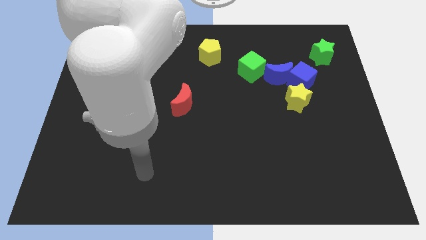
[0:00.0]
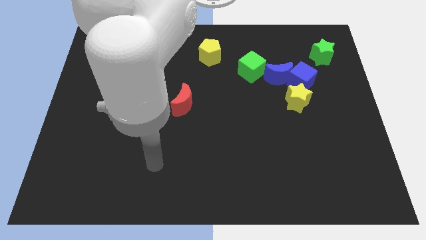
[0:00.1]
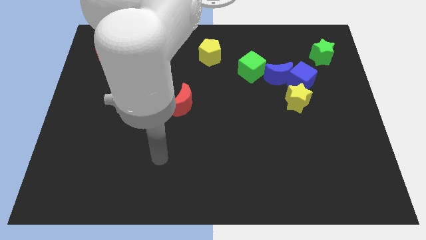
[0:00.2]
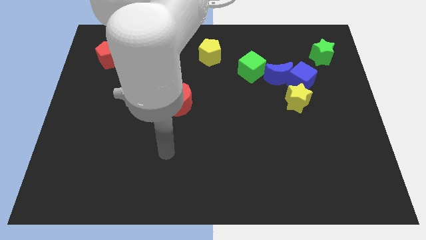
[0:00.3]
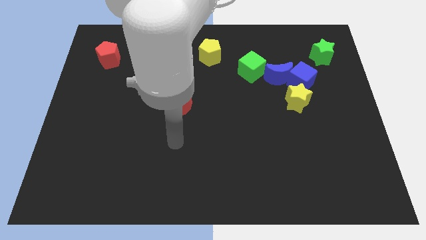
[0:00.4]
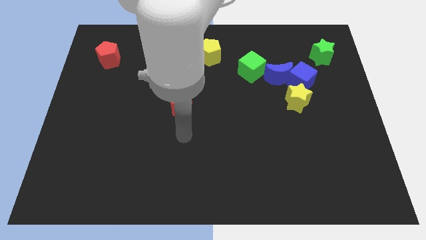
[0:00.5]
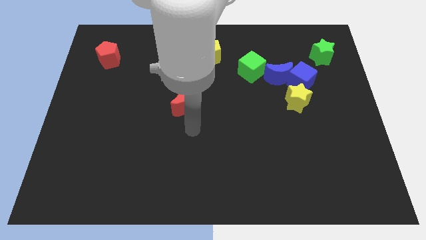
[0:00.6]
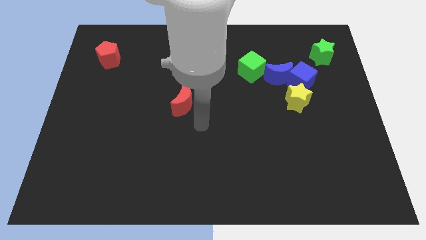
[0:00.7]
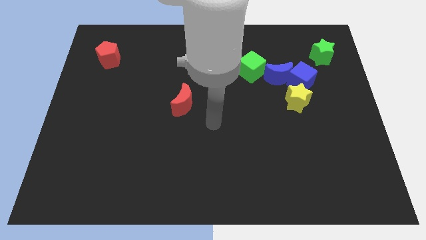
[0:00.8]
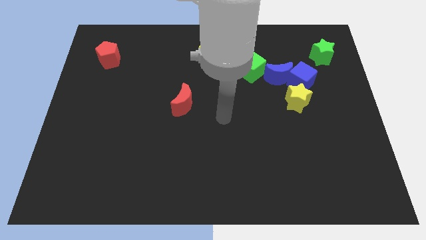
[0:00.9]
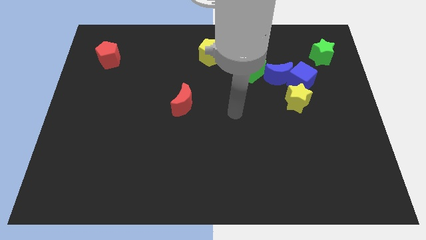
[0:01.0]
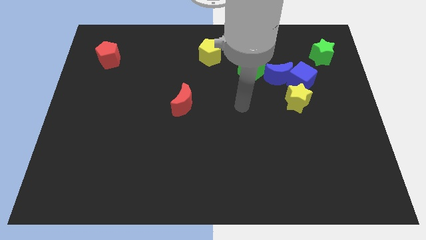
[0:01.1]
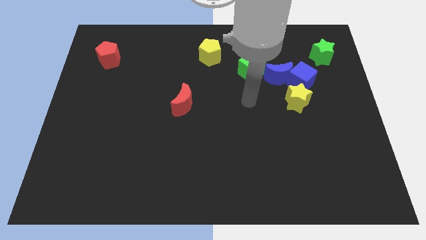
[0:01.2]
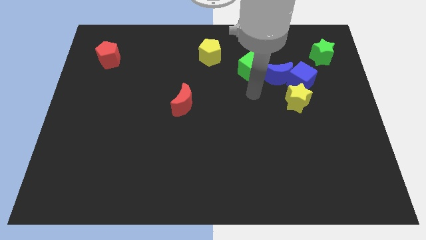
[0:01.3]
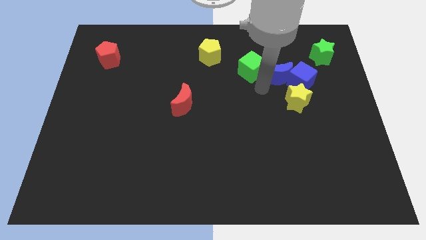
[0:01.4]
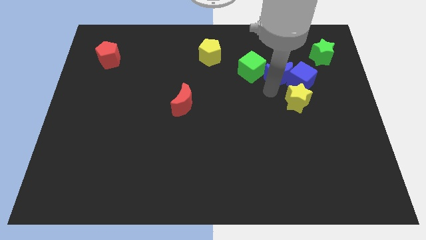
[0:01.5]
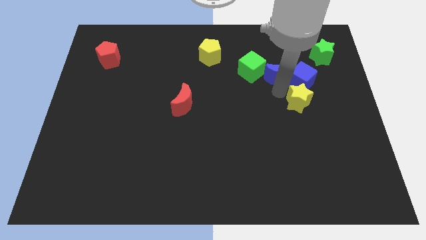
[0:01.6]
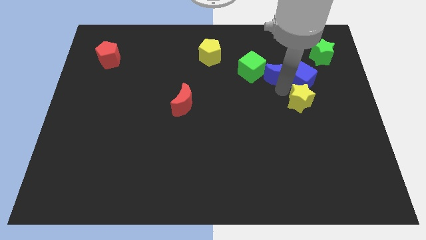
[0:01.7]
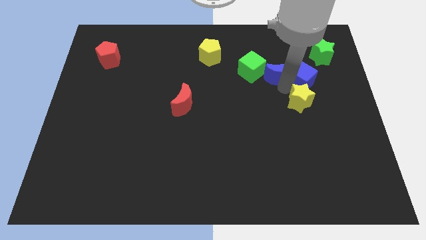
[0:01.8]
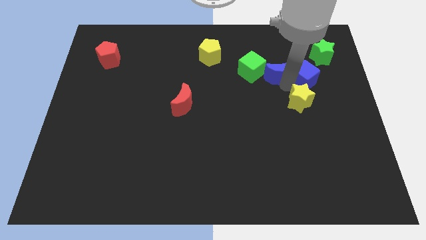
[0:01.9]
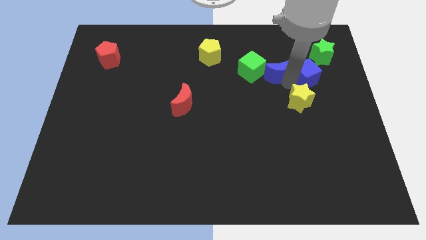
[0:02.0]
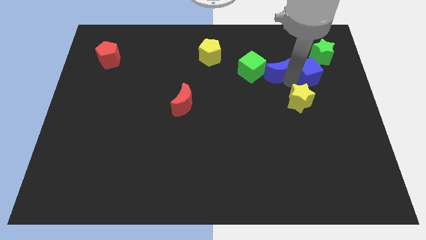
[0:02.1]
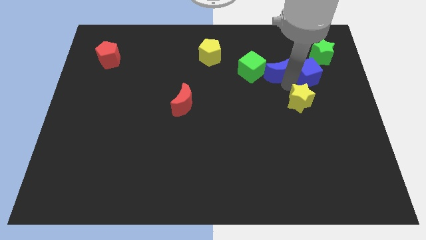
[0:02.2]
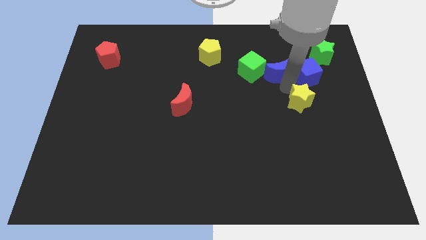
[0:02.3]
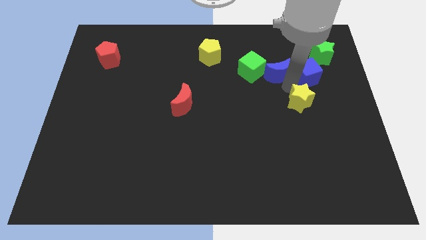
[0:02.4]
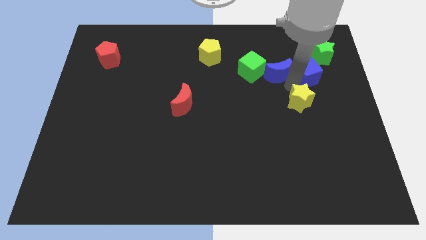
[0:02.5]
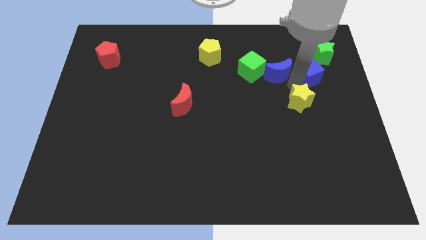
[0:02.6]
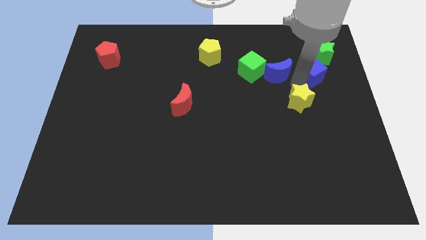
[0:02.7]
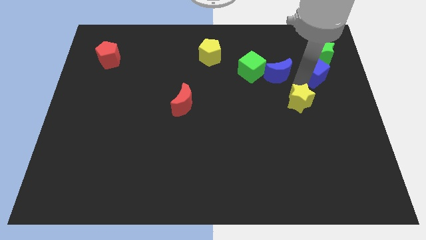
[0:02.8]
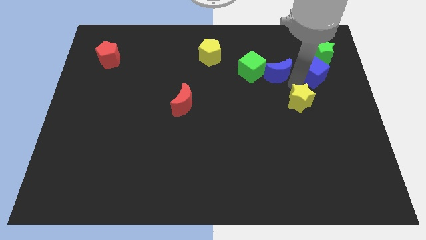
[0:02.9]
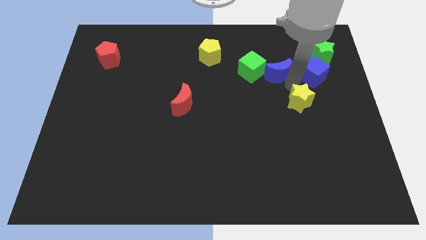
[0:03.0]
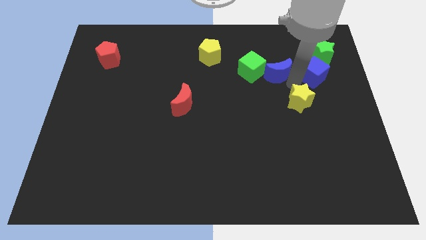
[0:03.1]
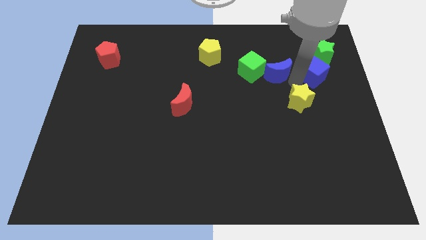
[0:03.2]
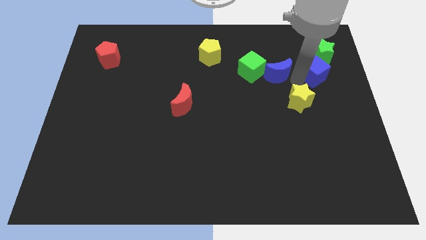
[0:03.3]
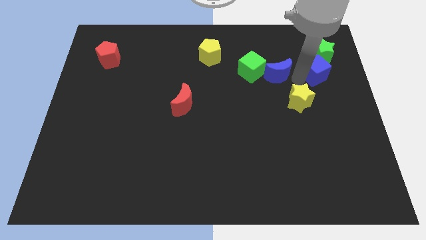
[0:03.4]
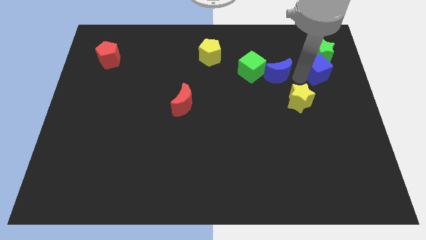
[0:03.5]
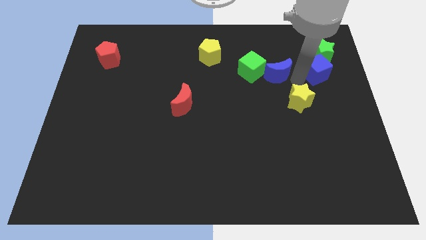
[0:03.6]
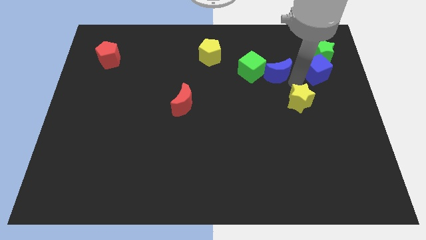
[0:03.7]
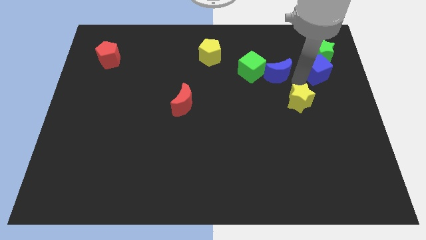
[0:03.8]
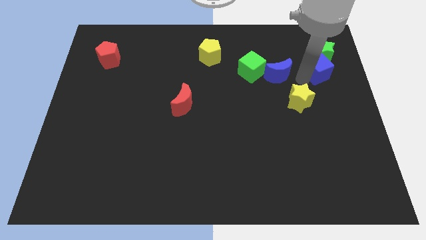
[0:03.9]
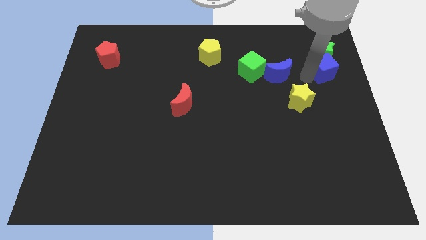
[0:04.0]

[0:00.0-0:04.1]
pull the blue cube apart from the blue moon and yellow star

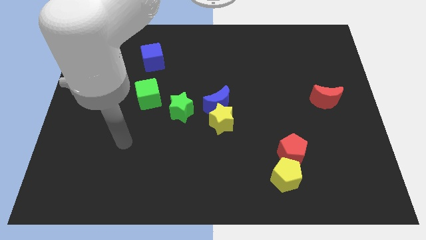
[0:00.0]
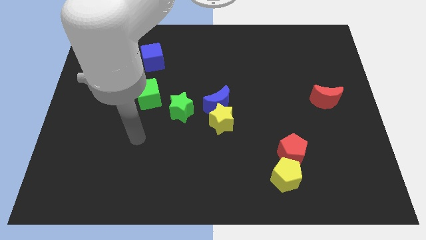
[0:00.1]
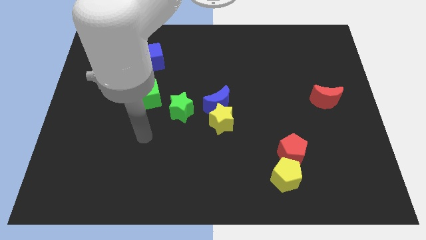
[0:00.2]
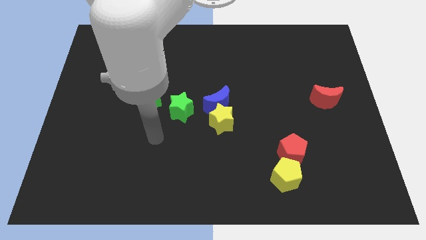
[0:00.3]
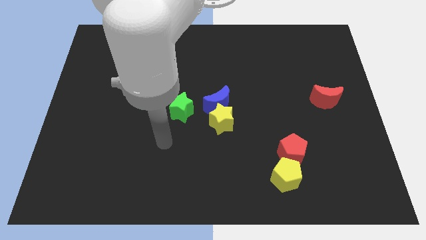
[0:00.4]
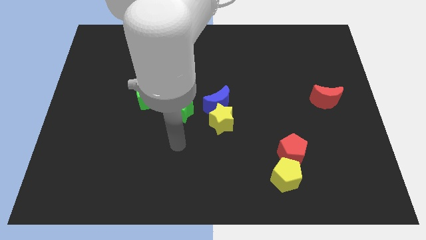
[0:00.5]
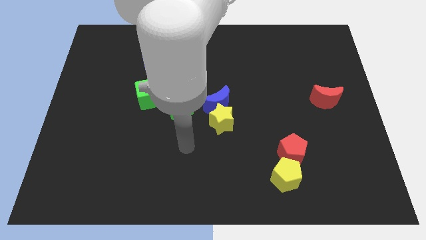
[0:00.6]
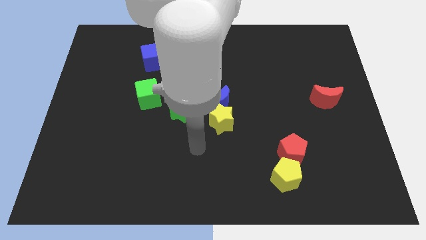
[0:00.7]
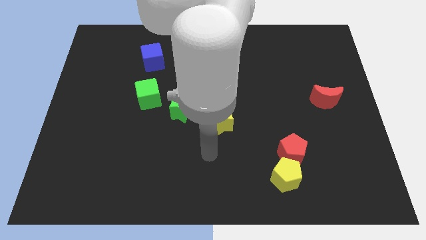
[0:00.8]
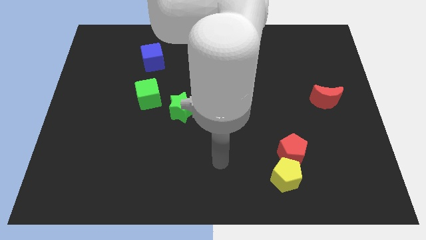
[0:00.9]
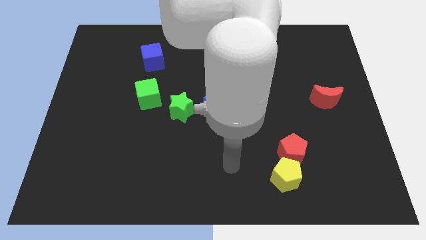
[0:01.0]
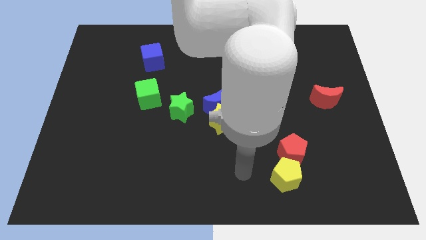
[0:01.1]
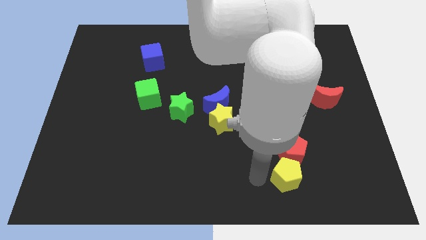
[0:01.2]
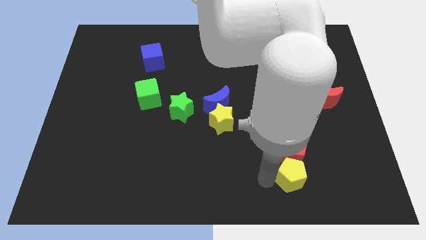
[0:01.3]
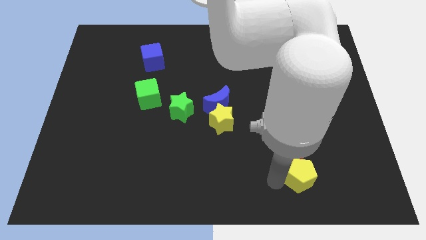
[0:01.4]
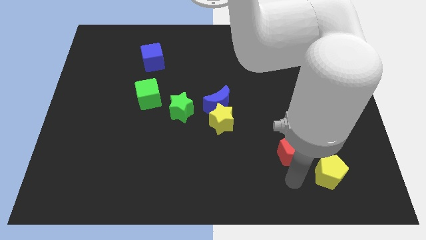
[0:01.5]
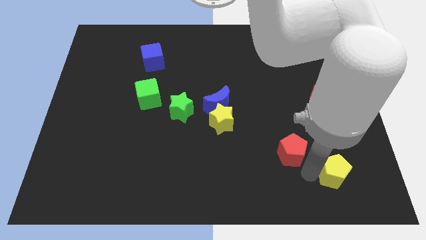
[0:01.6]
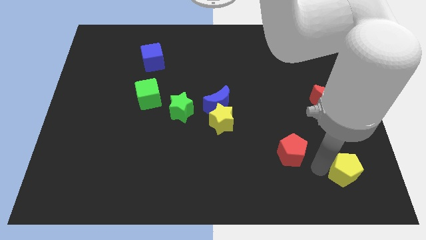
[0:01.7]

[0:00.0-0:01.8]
separate the red pentagon from the yellow pentagon

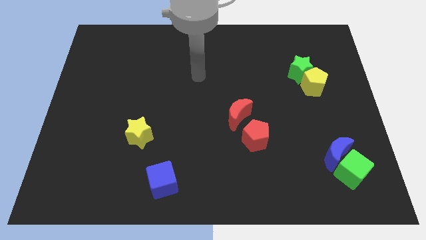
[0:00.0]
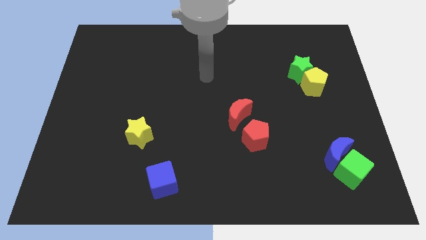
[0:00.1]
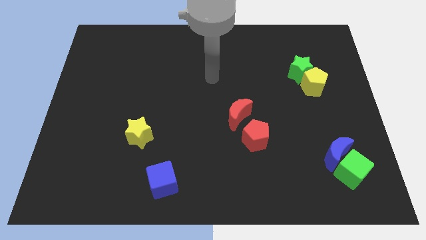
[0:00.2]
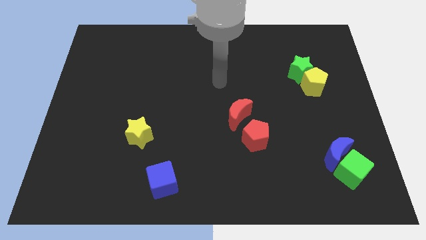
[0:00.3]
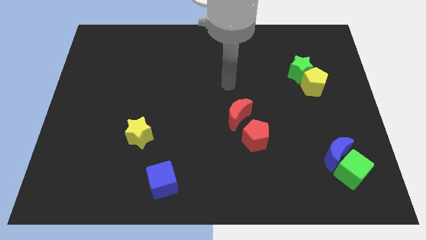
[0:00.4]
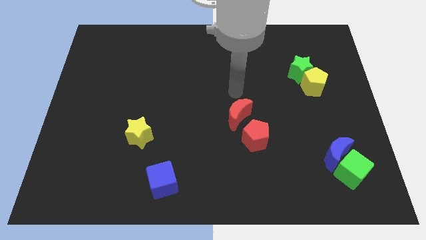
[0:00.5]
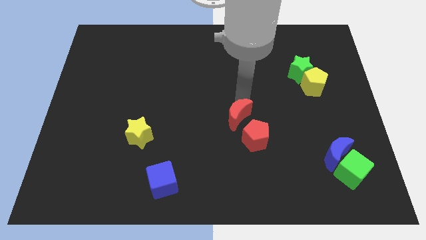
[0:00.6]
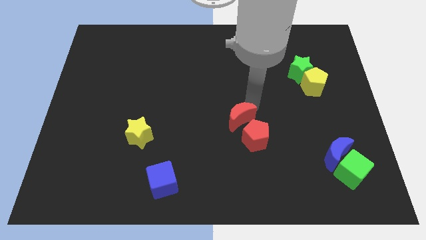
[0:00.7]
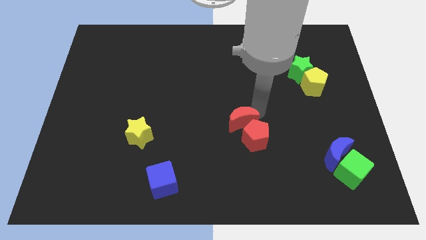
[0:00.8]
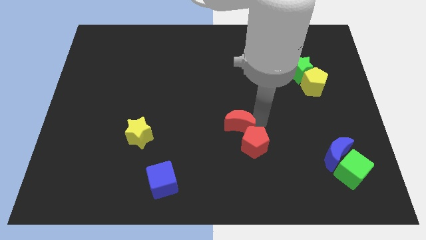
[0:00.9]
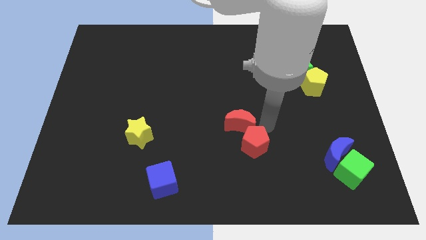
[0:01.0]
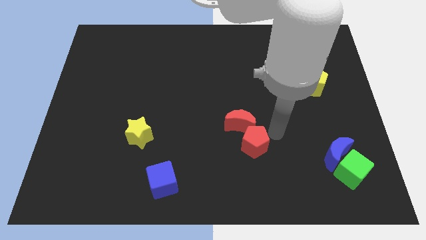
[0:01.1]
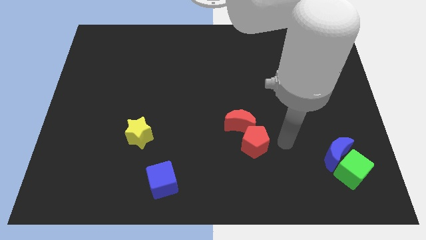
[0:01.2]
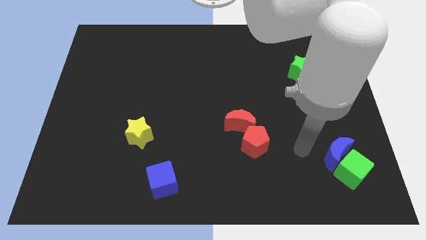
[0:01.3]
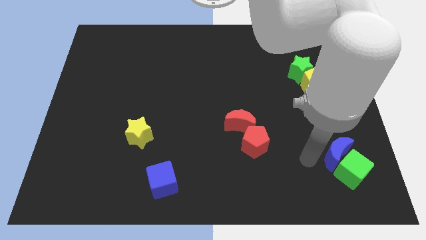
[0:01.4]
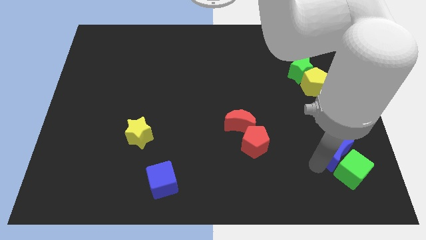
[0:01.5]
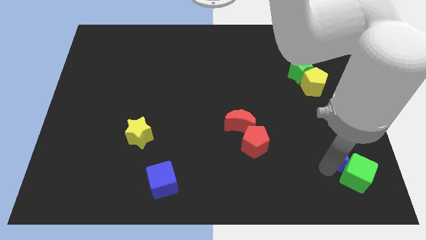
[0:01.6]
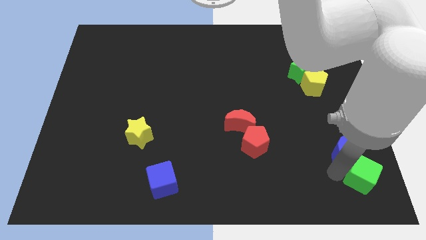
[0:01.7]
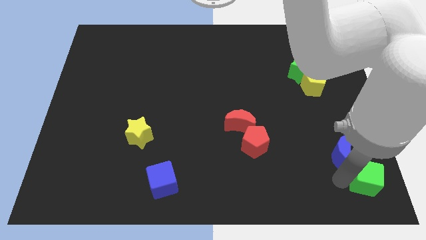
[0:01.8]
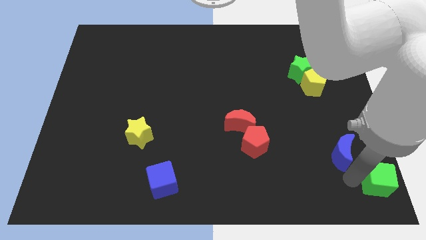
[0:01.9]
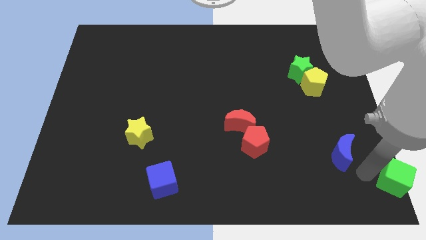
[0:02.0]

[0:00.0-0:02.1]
separate the blue moon from the green cube

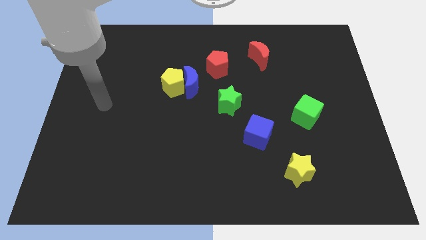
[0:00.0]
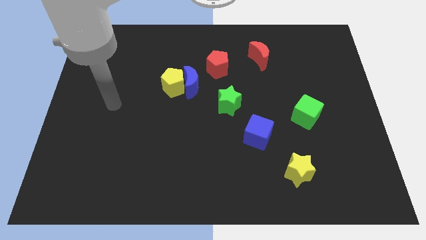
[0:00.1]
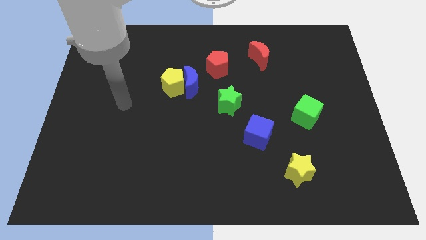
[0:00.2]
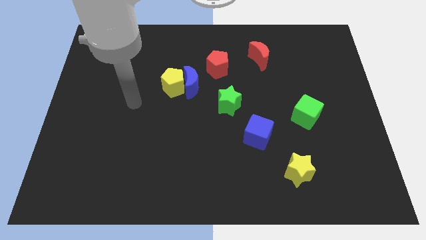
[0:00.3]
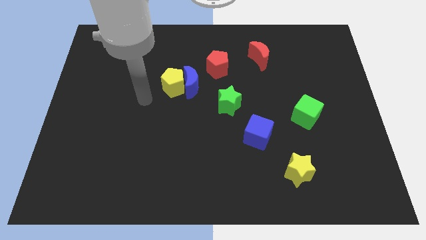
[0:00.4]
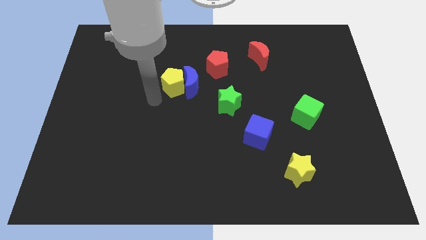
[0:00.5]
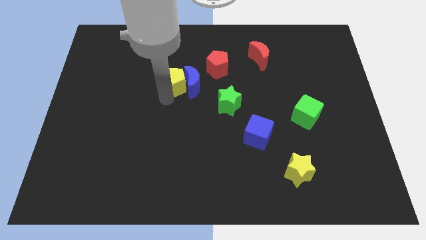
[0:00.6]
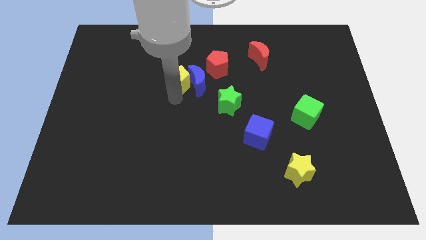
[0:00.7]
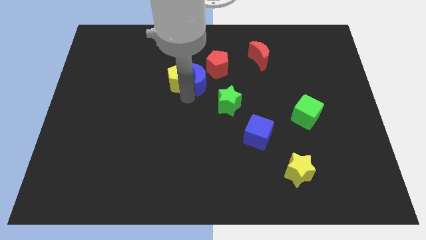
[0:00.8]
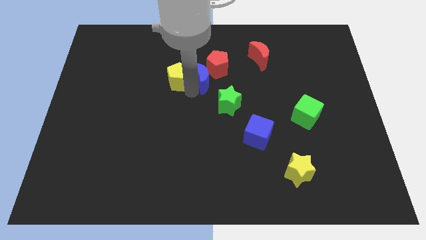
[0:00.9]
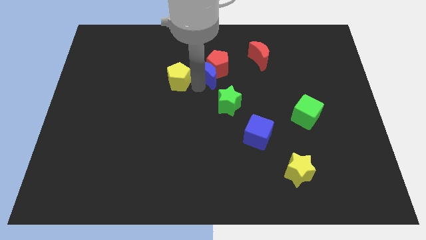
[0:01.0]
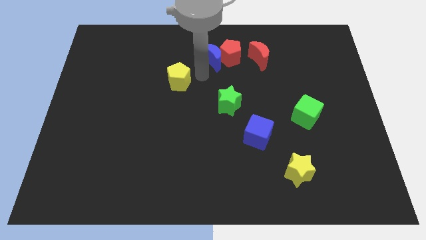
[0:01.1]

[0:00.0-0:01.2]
separate the yellow pentagon from the blue moon

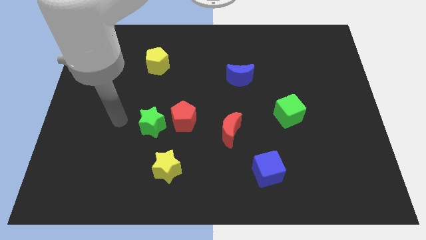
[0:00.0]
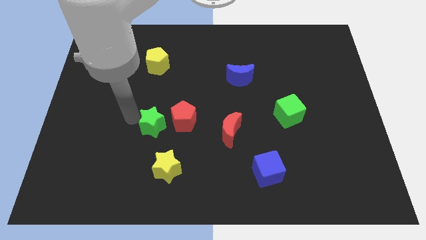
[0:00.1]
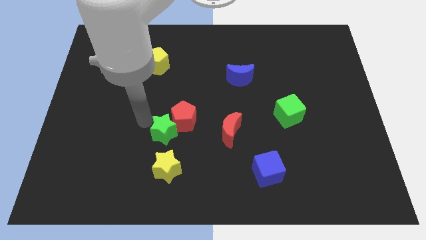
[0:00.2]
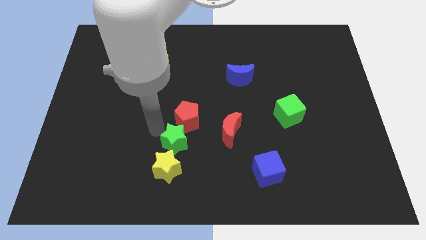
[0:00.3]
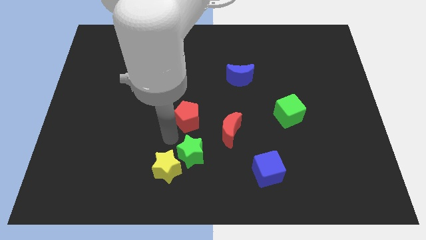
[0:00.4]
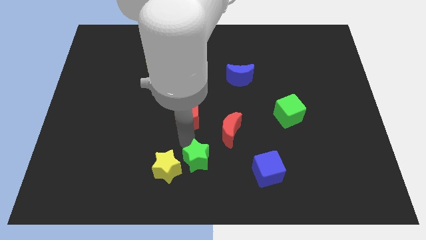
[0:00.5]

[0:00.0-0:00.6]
move the red pentagon away from the green star
